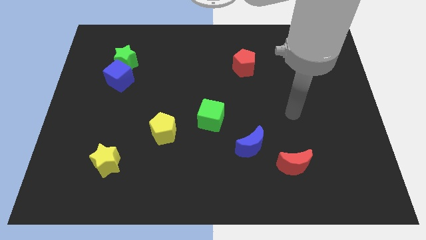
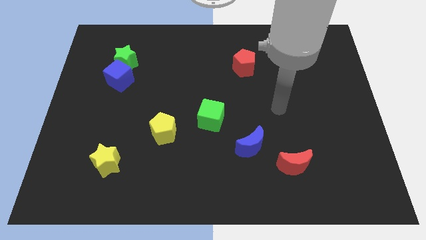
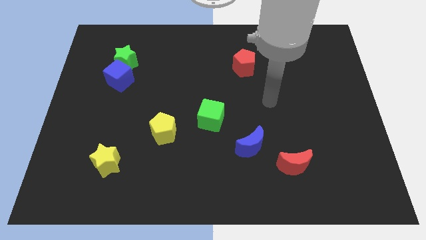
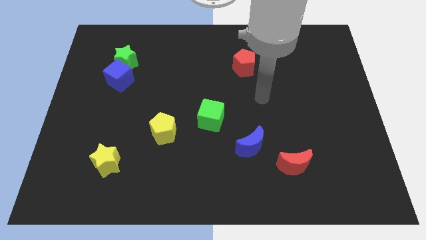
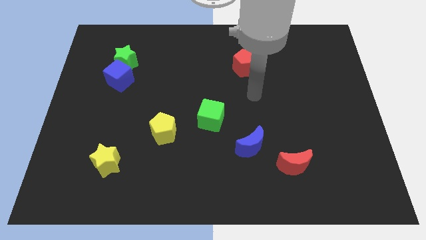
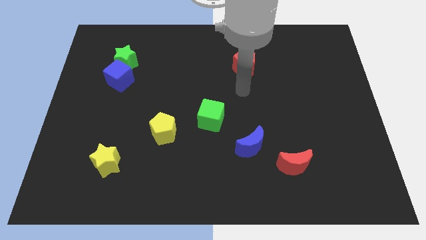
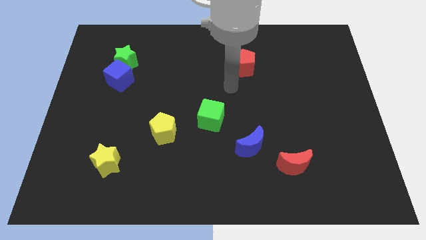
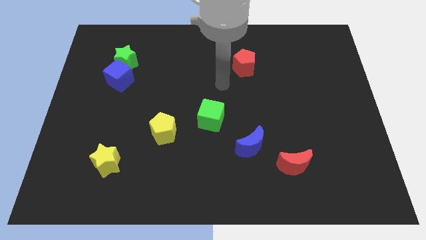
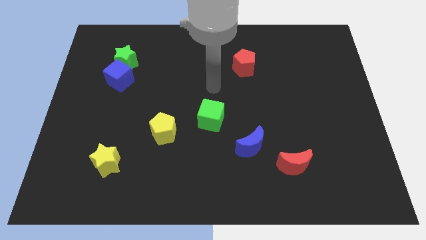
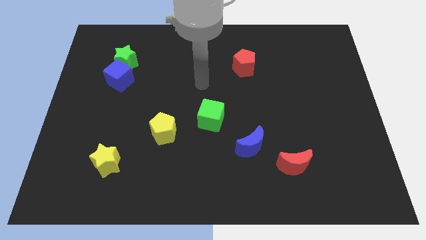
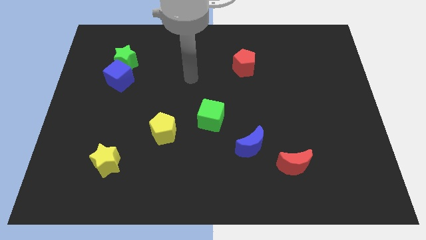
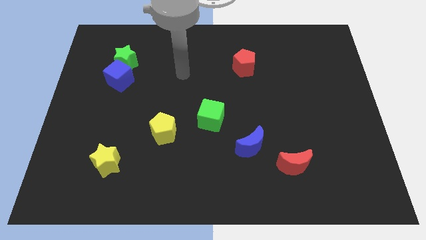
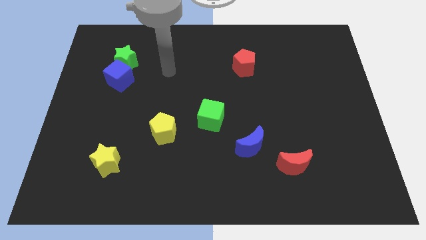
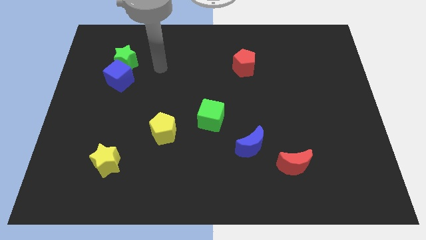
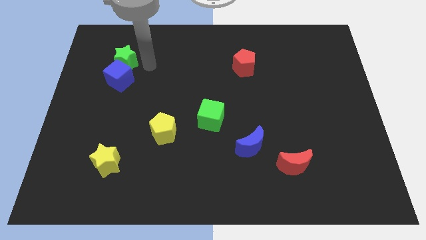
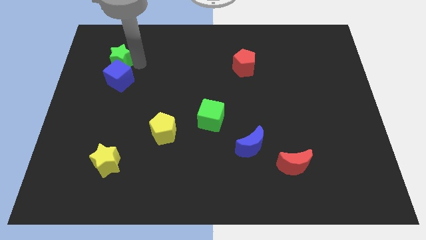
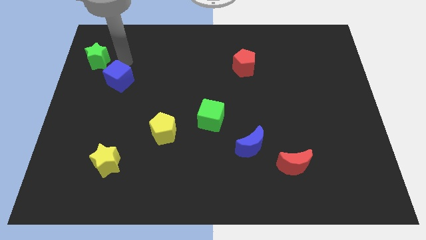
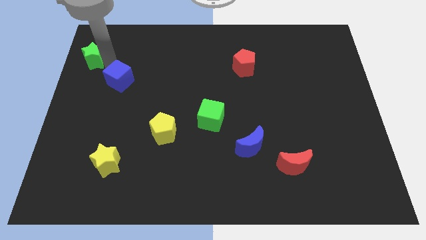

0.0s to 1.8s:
separate the blue cube from the green star

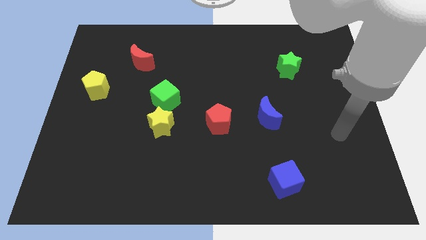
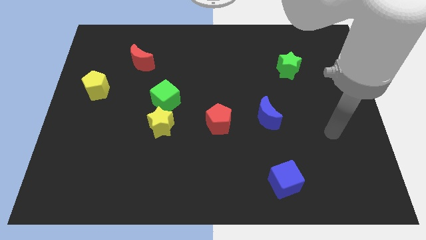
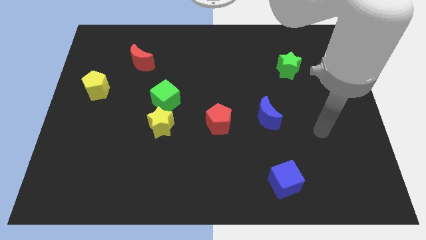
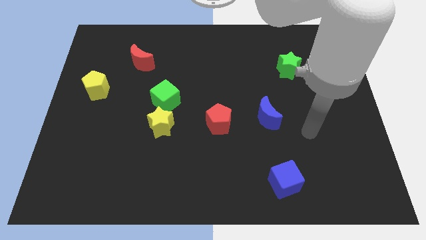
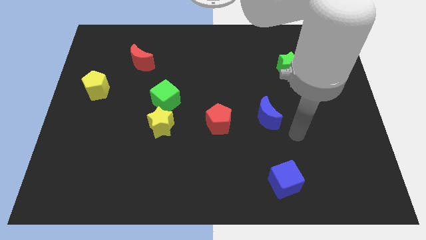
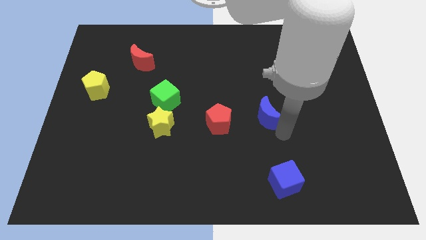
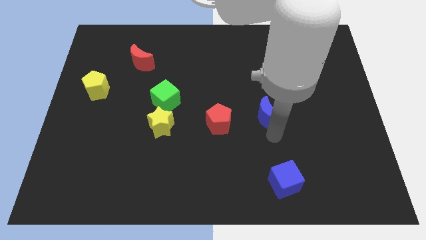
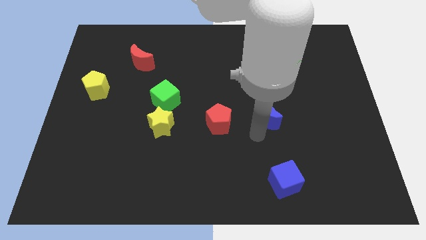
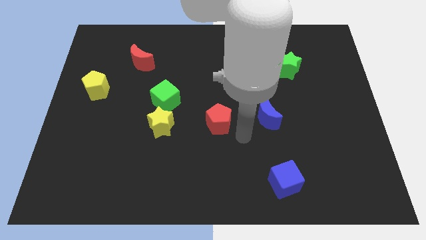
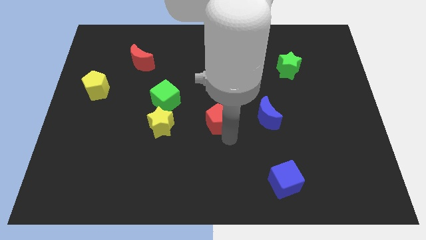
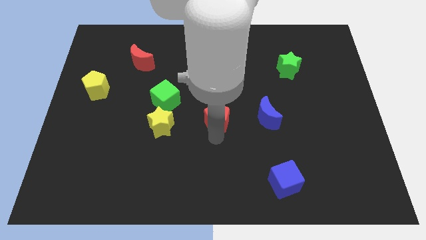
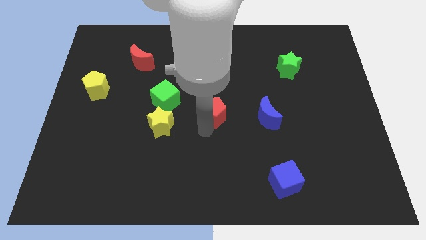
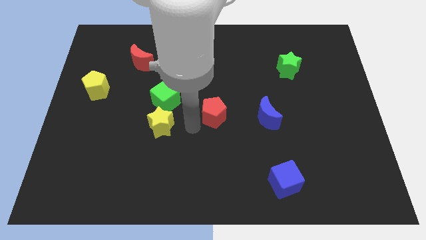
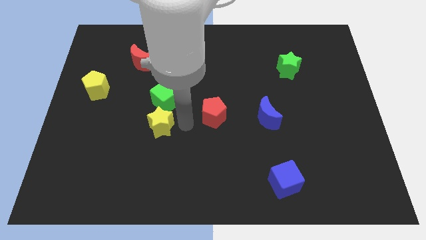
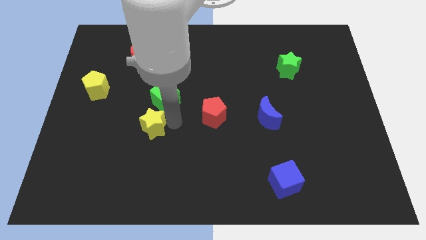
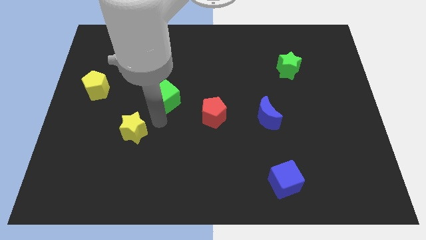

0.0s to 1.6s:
move the green cube away from the yellow star

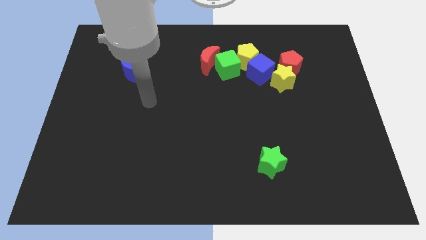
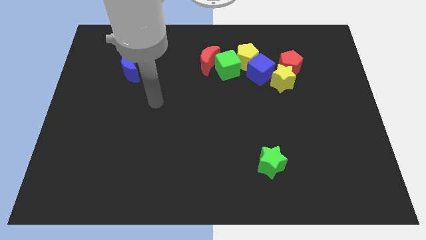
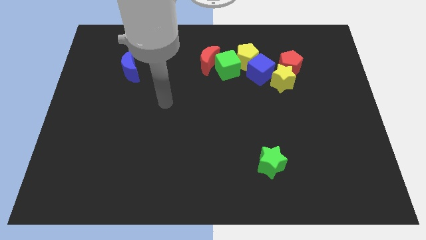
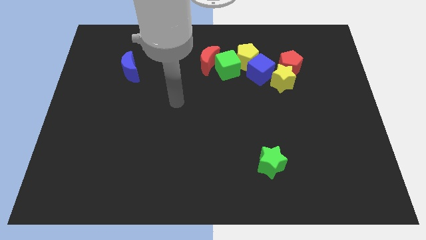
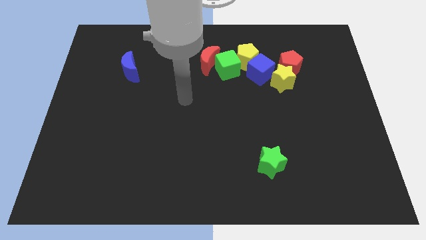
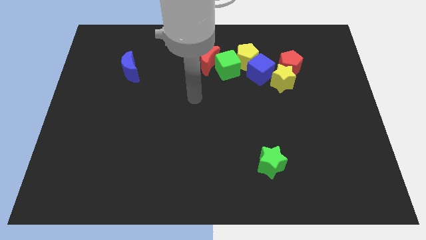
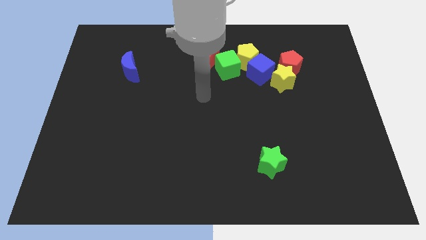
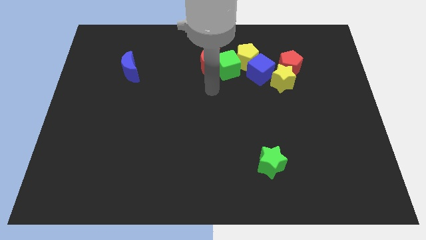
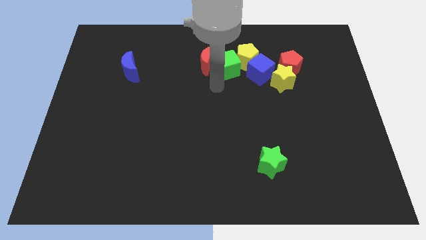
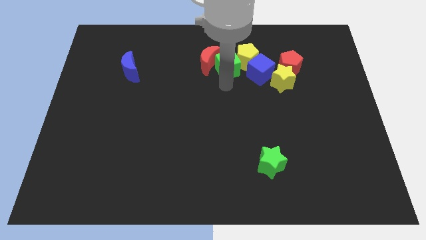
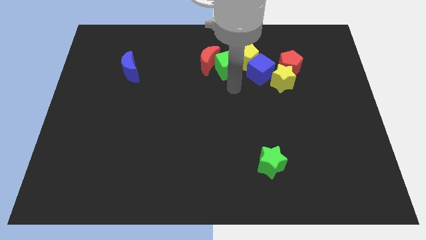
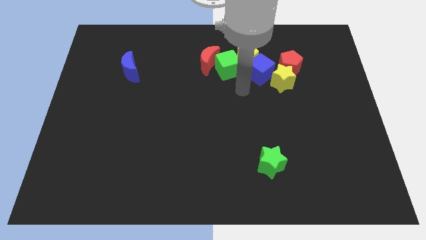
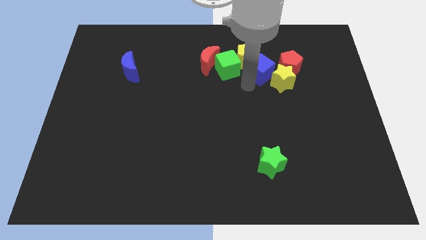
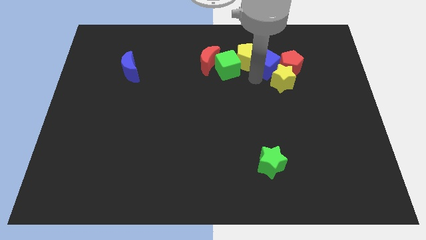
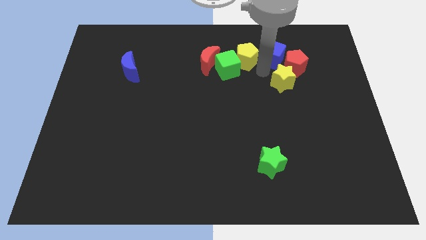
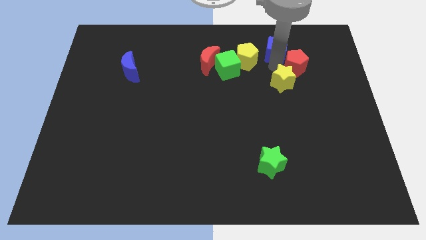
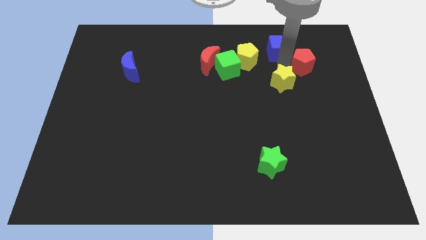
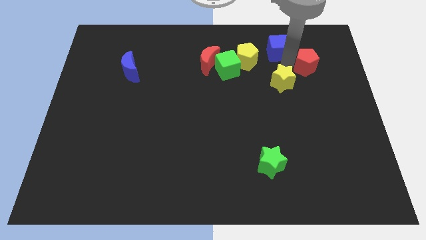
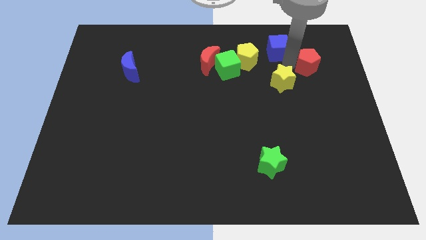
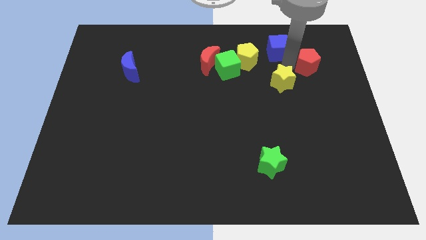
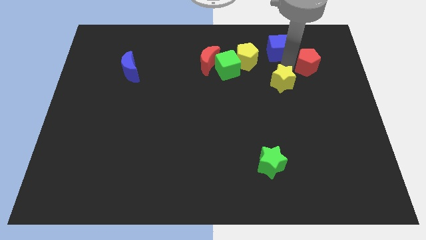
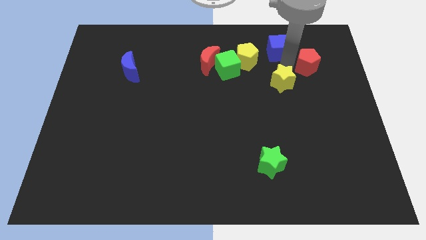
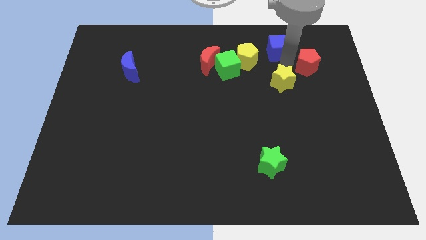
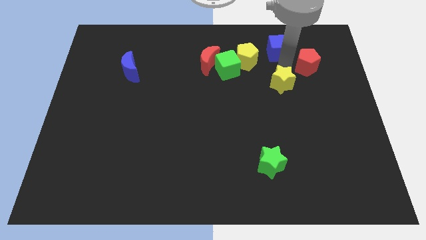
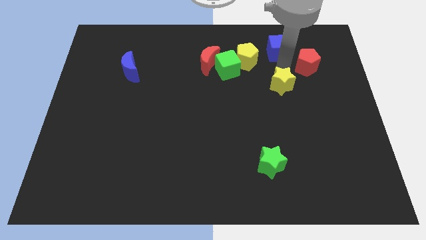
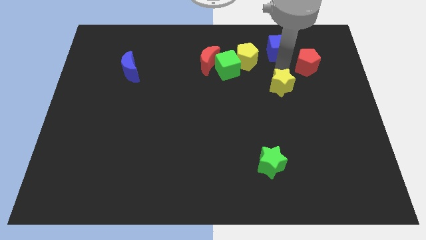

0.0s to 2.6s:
separate the yellow star from the red pentagon and blue cube

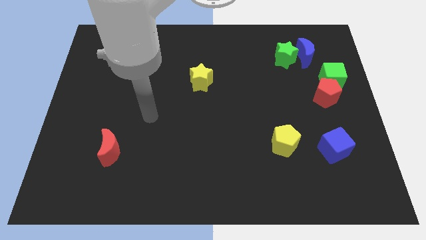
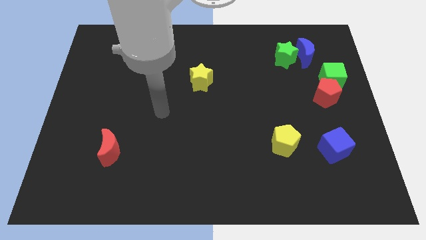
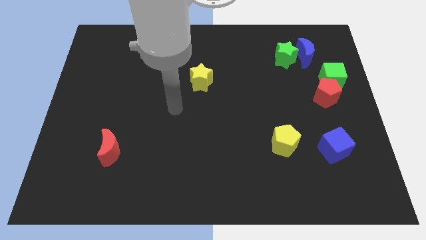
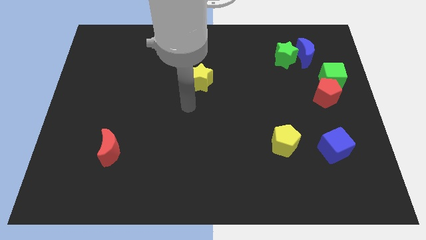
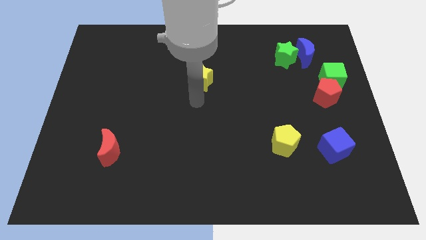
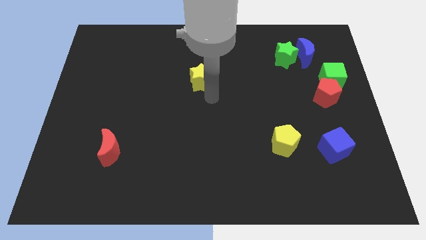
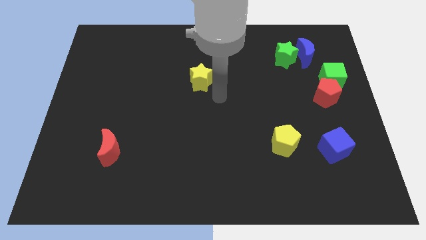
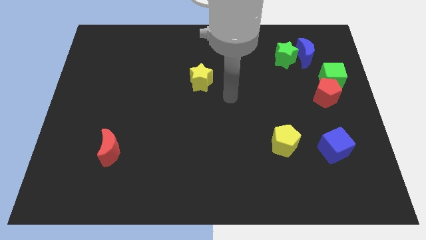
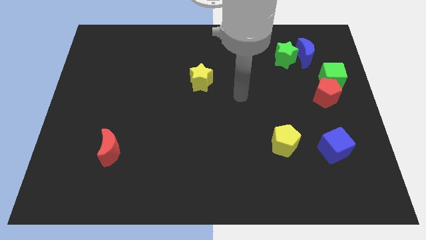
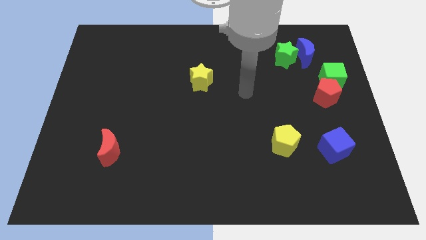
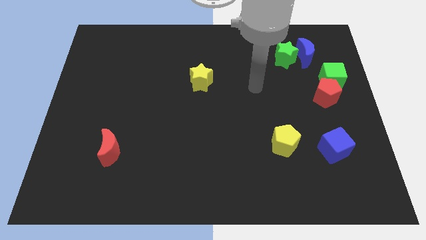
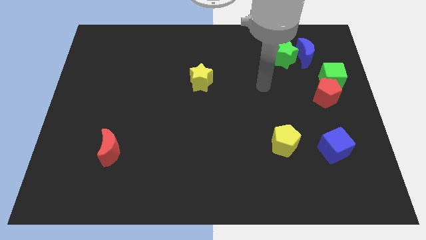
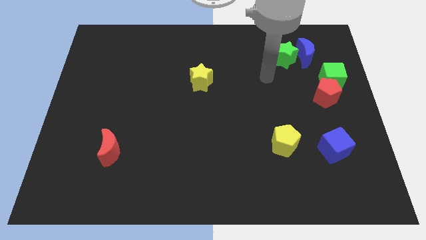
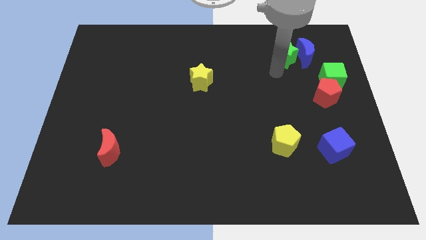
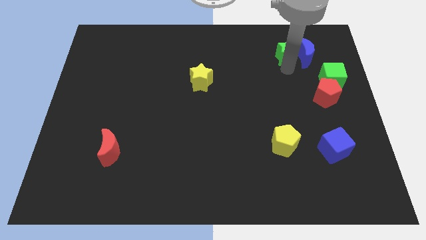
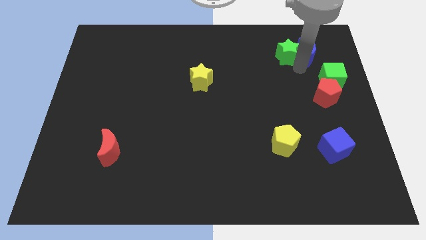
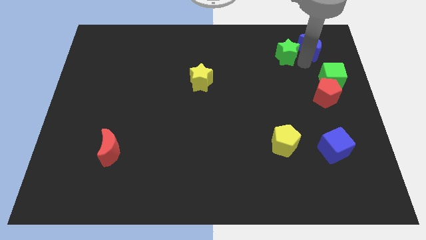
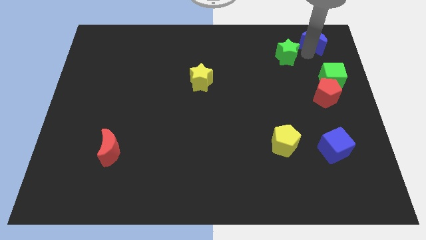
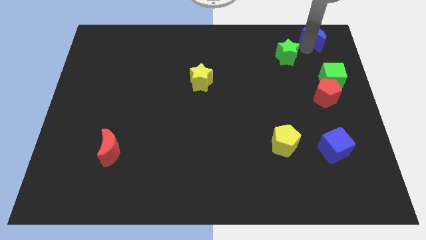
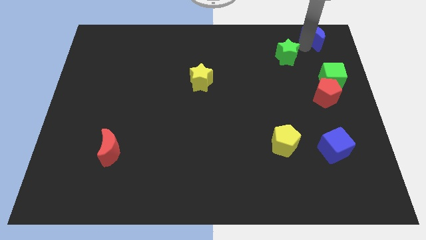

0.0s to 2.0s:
move the green star away from the blue moon

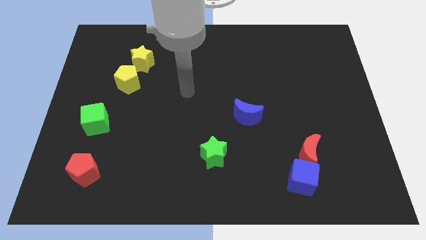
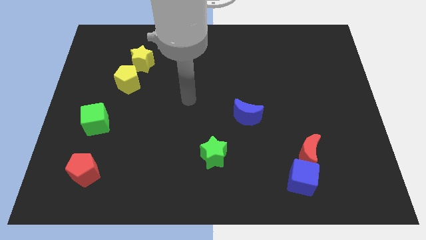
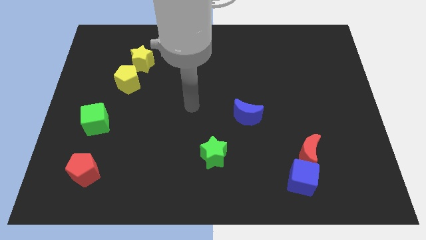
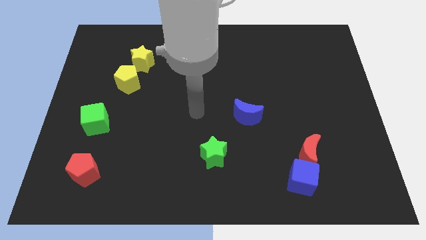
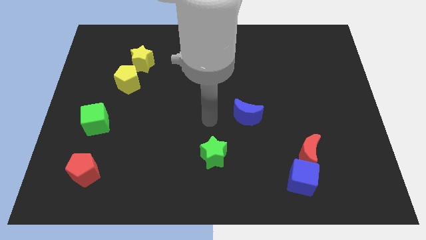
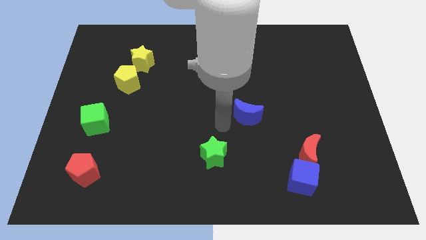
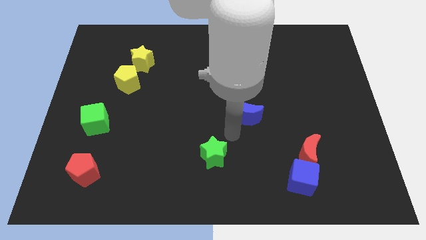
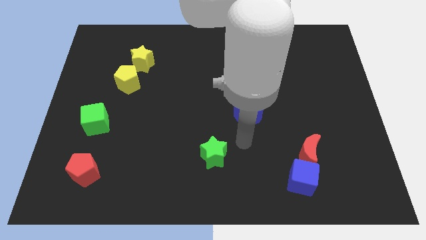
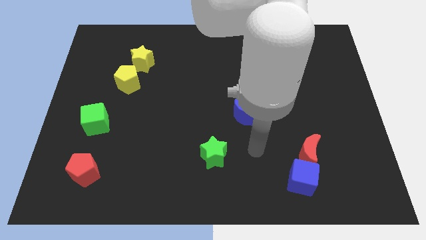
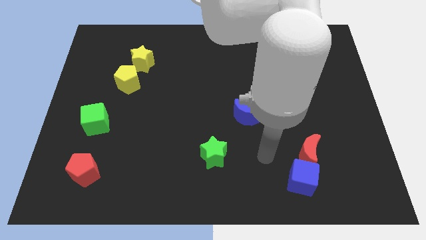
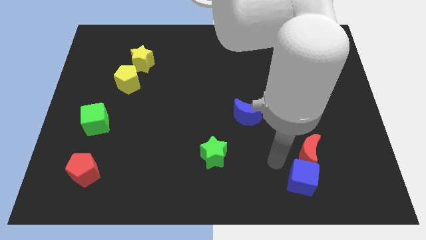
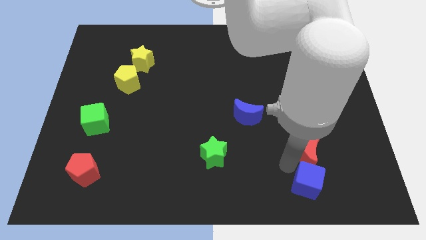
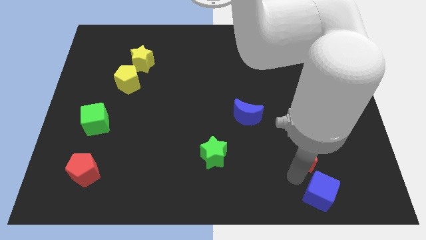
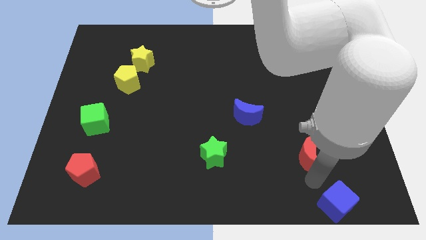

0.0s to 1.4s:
pull the red moon apart from the blue cube
